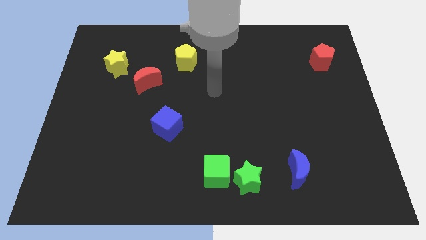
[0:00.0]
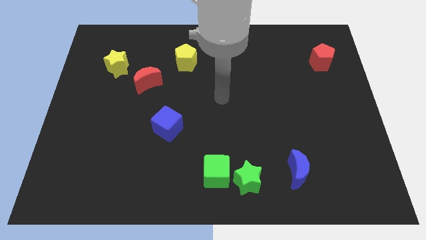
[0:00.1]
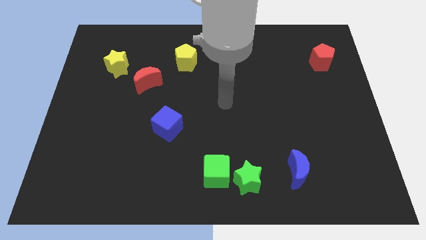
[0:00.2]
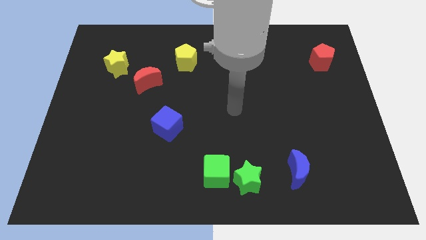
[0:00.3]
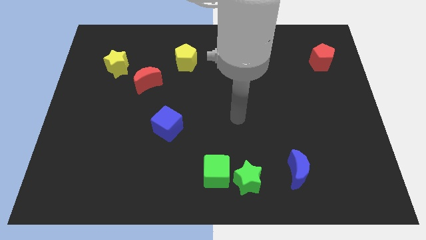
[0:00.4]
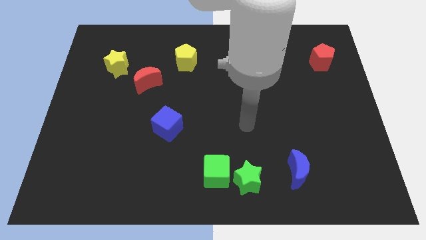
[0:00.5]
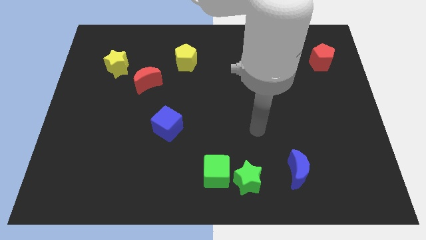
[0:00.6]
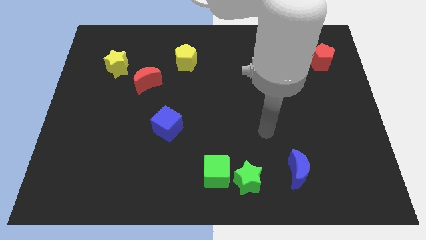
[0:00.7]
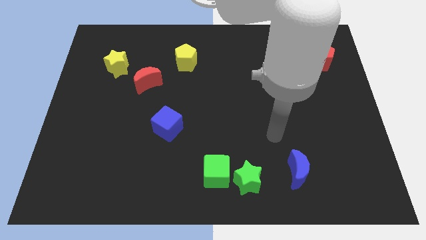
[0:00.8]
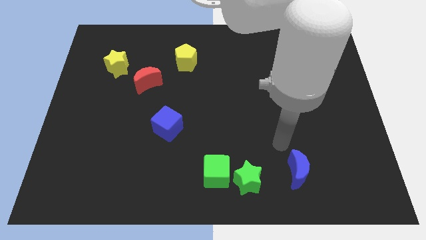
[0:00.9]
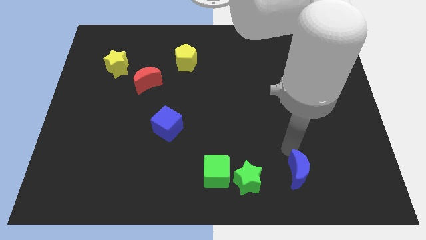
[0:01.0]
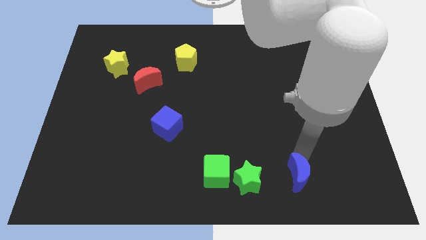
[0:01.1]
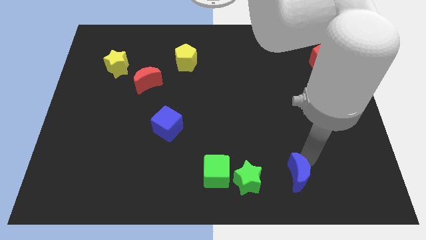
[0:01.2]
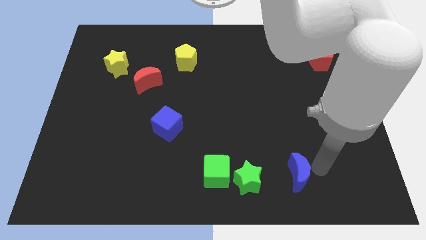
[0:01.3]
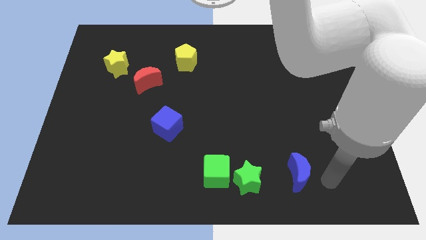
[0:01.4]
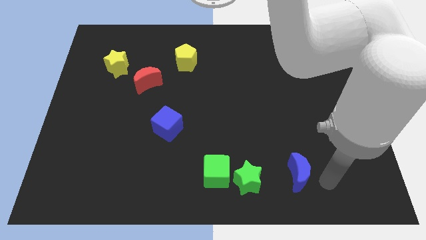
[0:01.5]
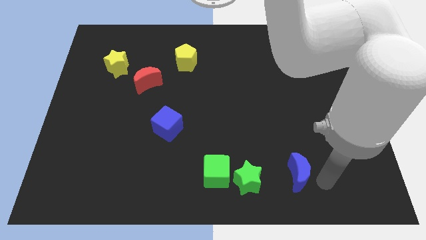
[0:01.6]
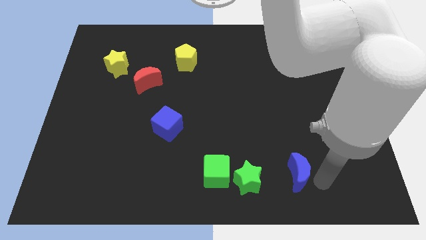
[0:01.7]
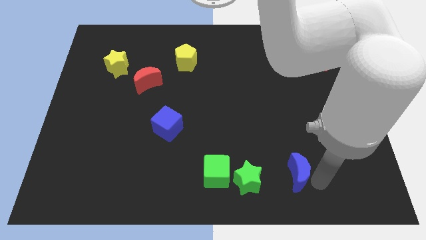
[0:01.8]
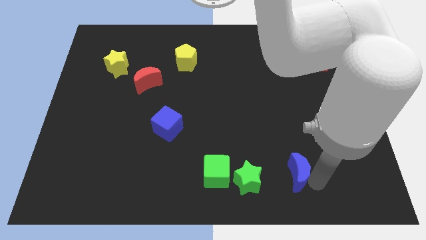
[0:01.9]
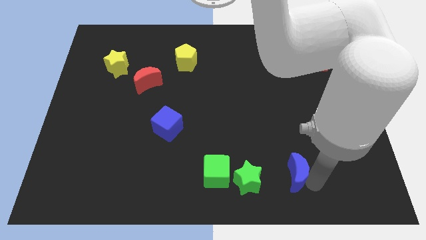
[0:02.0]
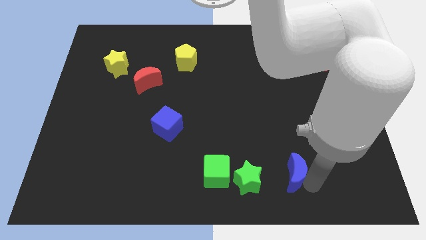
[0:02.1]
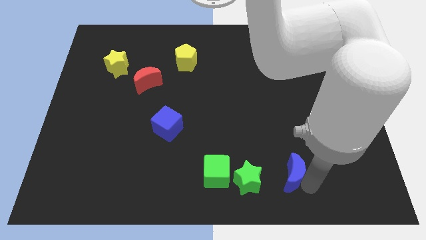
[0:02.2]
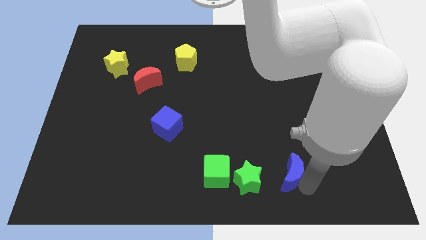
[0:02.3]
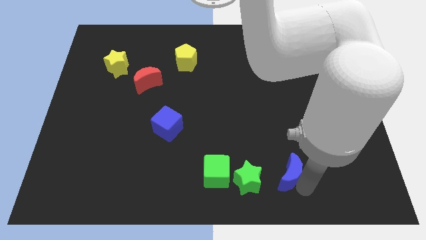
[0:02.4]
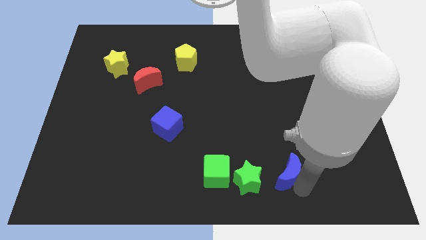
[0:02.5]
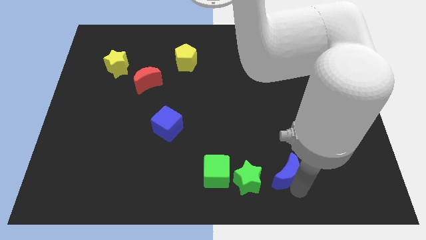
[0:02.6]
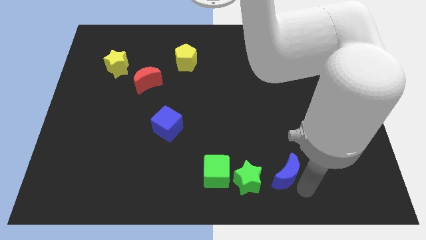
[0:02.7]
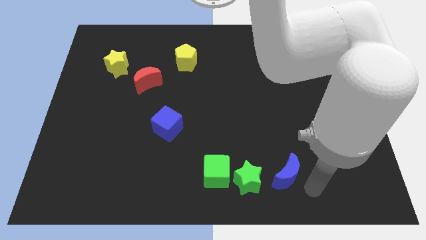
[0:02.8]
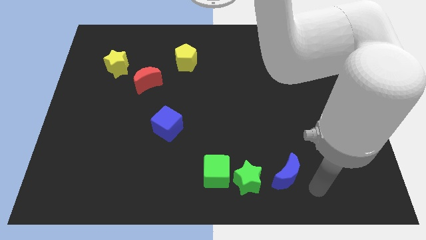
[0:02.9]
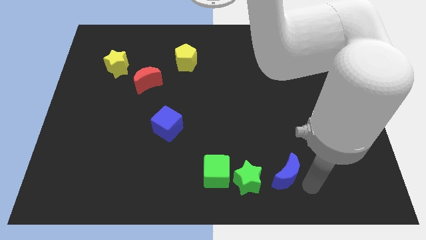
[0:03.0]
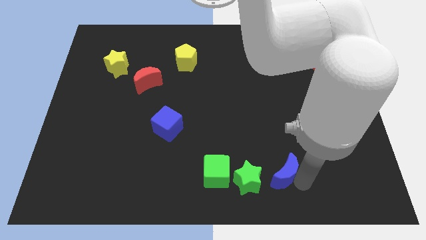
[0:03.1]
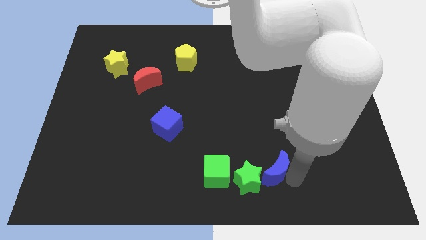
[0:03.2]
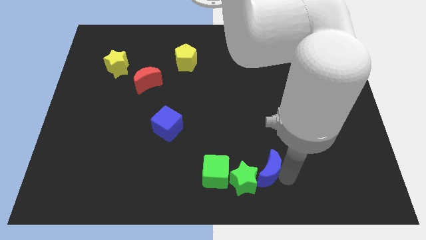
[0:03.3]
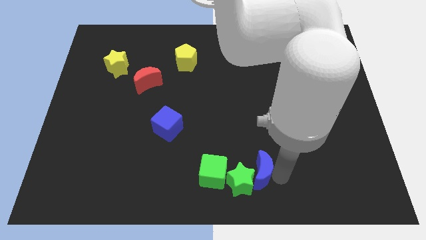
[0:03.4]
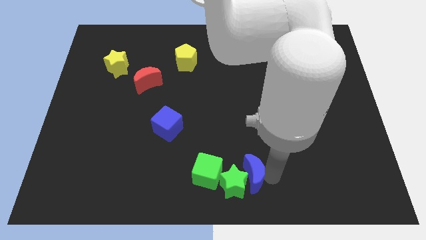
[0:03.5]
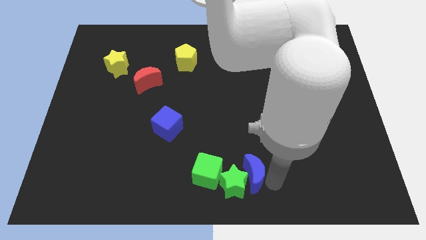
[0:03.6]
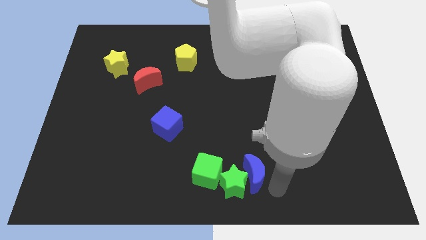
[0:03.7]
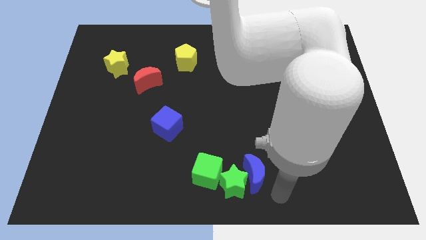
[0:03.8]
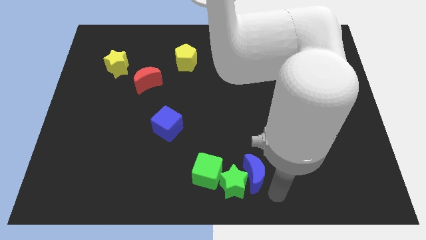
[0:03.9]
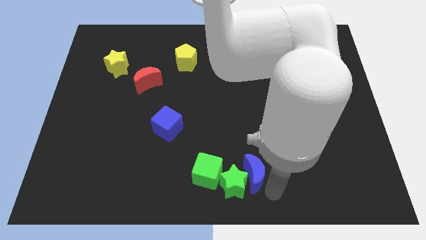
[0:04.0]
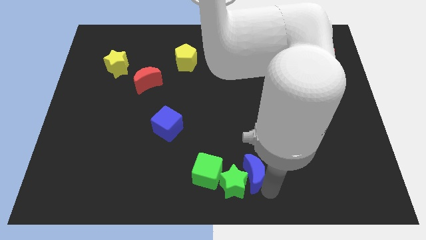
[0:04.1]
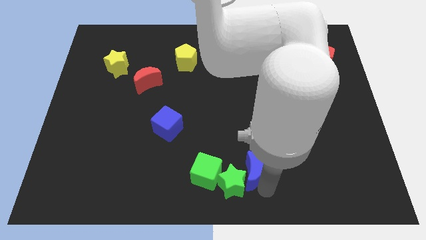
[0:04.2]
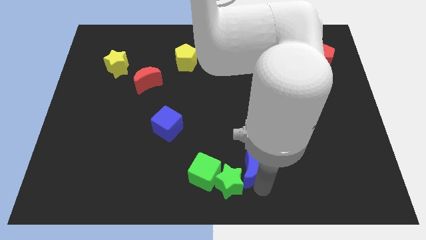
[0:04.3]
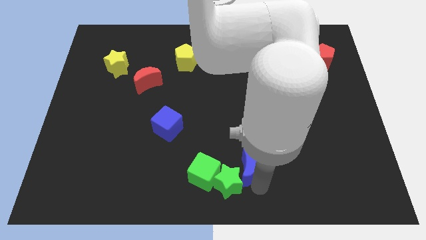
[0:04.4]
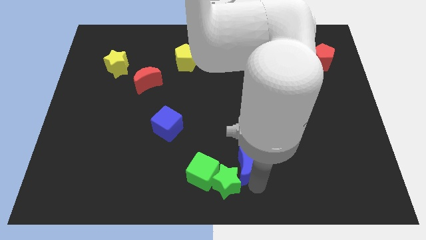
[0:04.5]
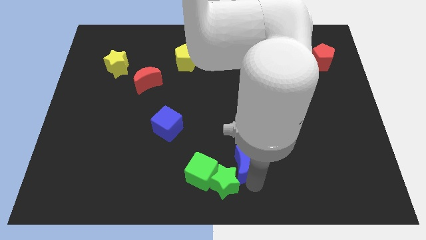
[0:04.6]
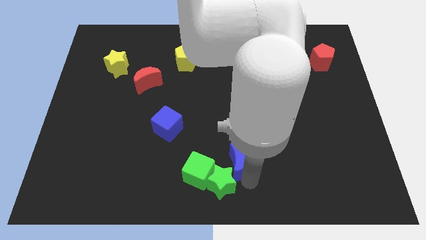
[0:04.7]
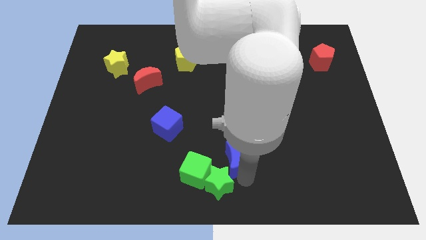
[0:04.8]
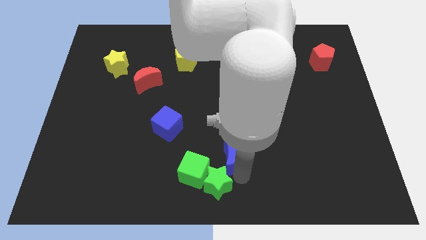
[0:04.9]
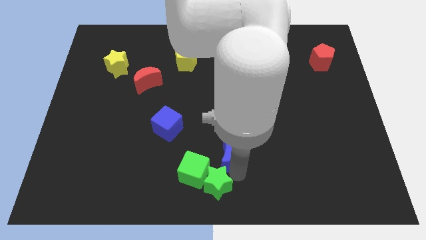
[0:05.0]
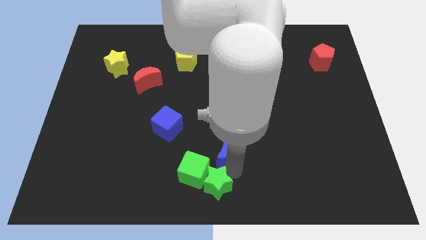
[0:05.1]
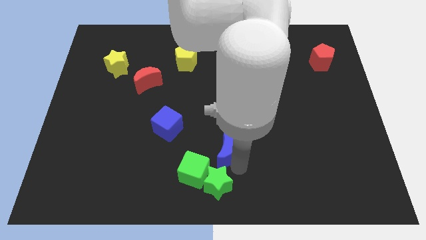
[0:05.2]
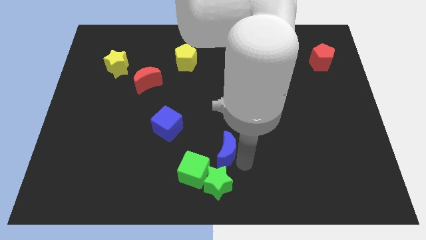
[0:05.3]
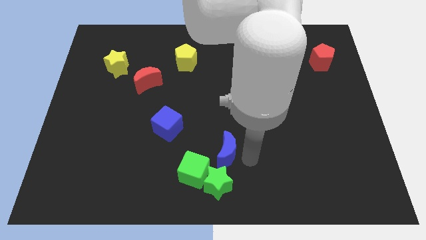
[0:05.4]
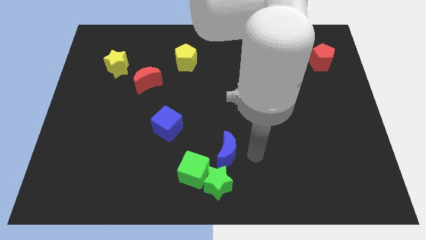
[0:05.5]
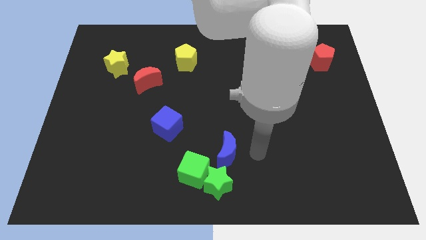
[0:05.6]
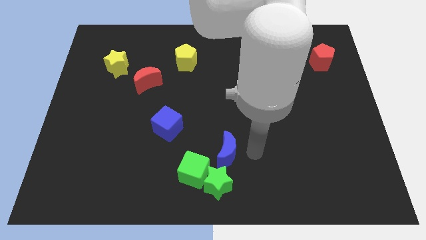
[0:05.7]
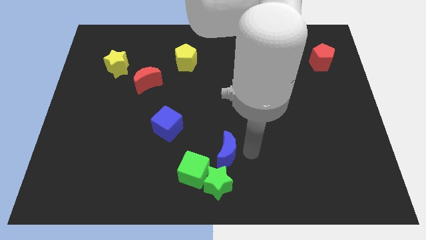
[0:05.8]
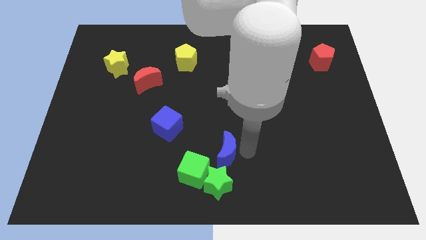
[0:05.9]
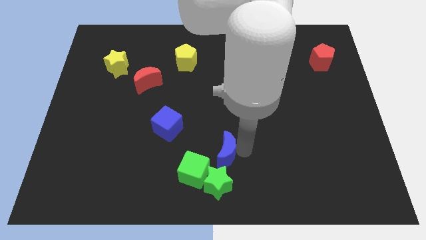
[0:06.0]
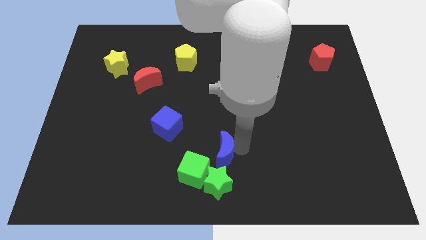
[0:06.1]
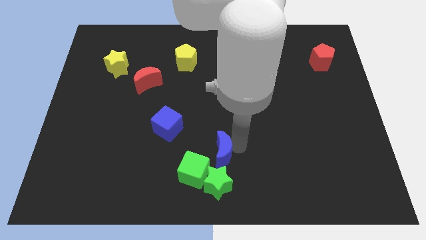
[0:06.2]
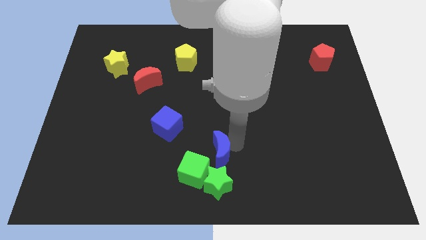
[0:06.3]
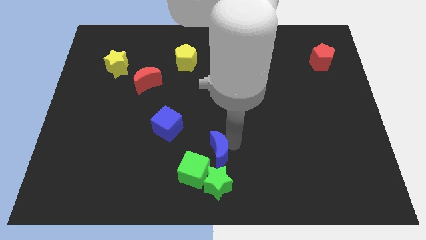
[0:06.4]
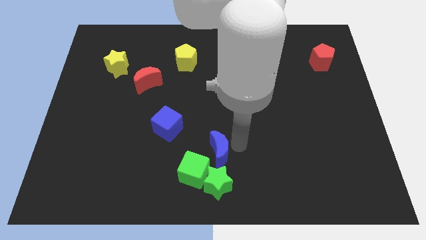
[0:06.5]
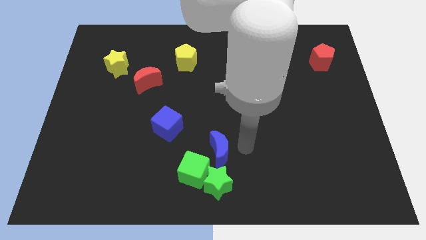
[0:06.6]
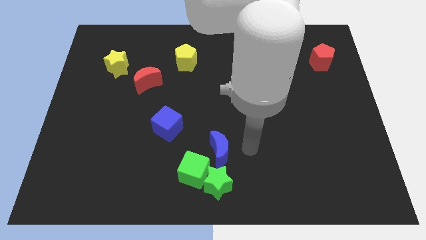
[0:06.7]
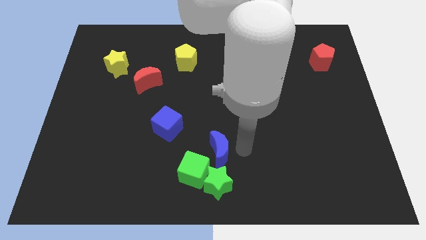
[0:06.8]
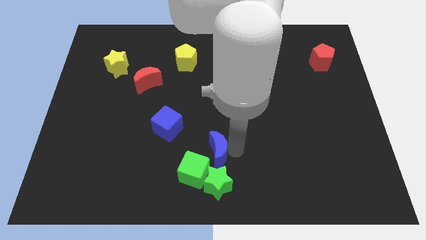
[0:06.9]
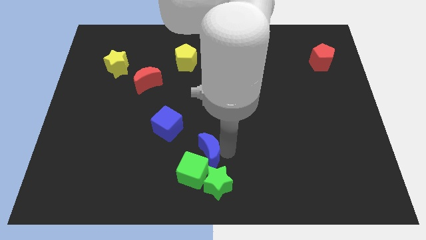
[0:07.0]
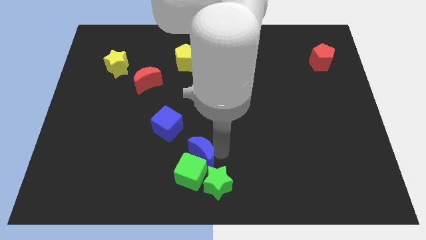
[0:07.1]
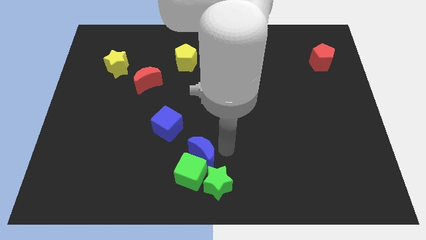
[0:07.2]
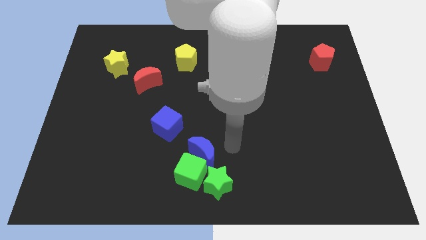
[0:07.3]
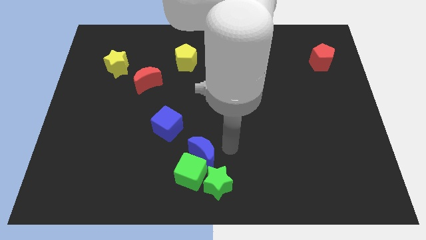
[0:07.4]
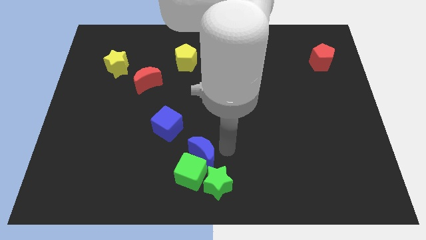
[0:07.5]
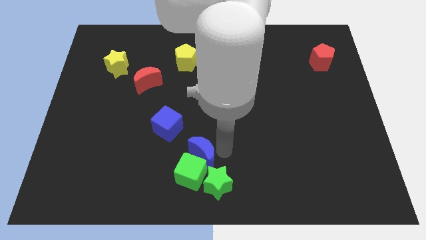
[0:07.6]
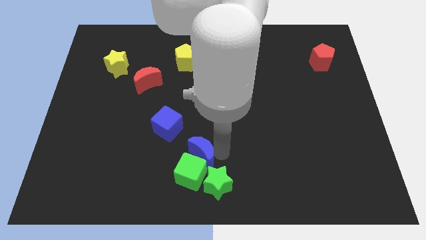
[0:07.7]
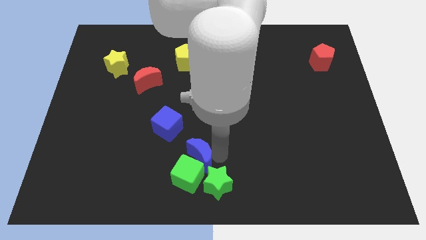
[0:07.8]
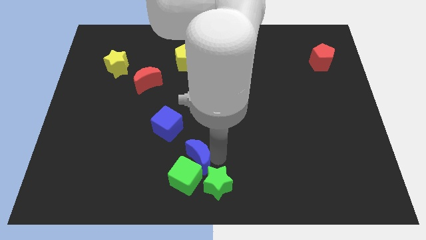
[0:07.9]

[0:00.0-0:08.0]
slide the blue moon to the left

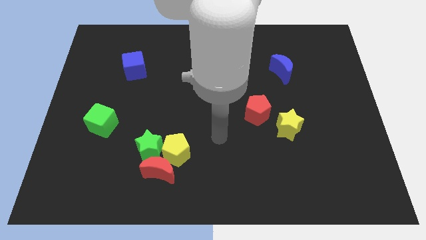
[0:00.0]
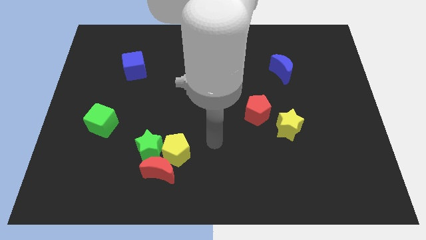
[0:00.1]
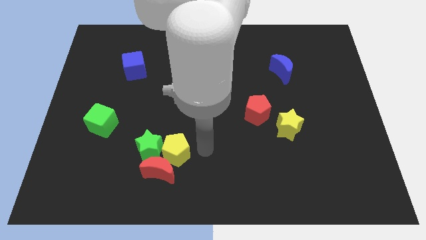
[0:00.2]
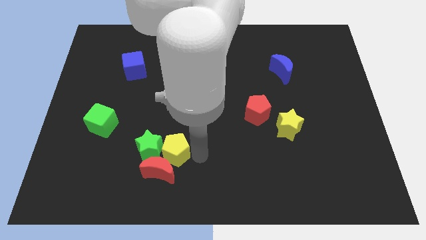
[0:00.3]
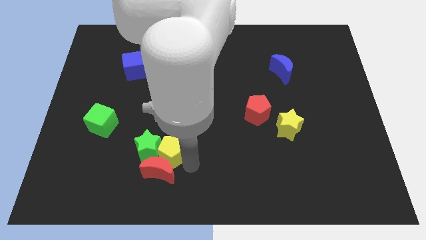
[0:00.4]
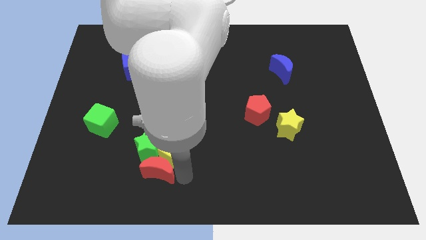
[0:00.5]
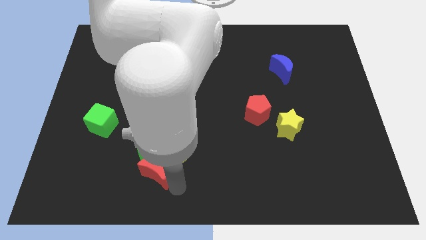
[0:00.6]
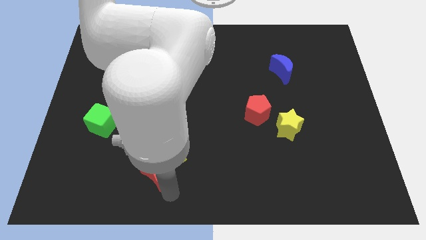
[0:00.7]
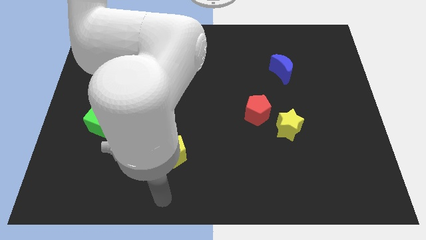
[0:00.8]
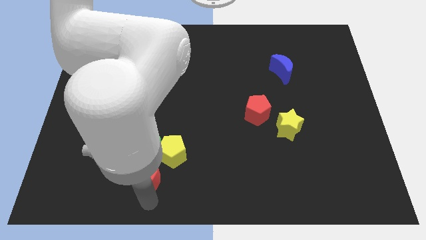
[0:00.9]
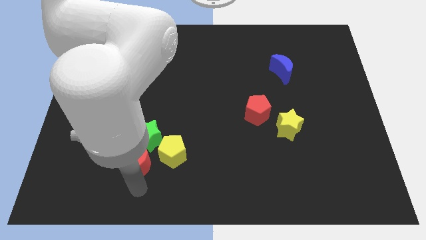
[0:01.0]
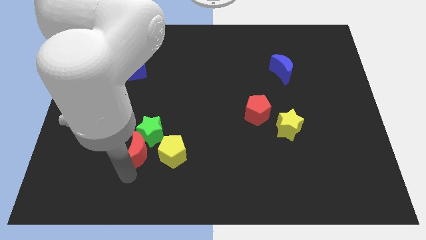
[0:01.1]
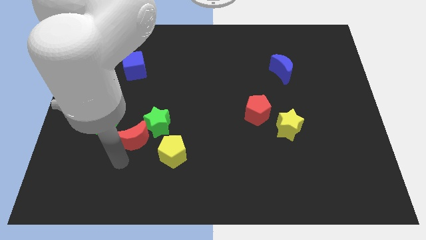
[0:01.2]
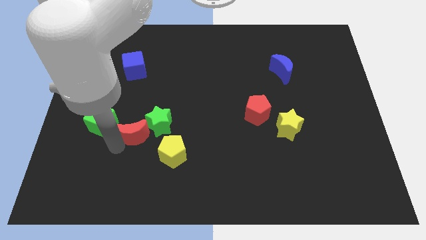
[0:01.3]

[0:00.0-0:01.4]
push the red moon upwards a bit
